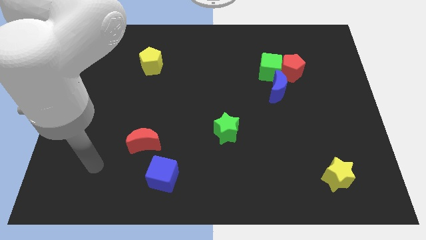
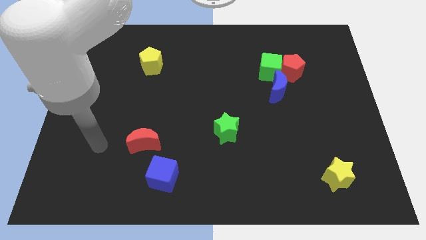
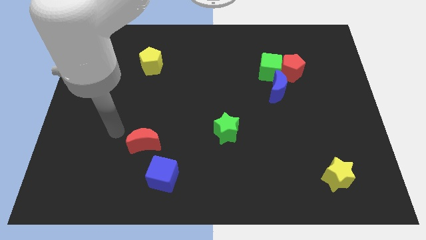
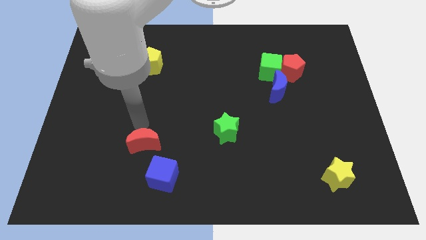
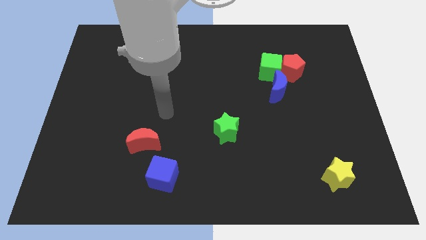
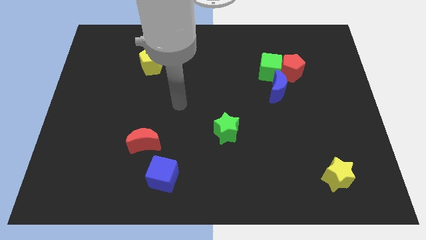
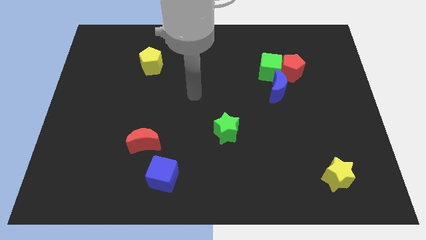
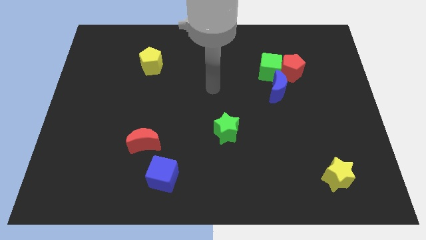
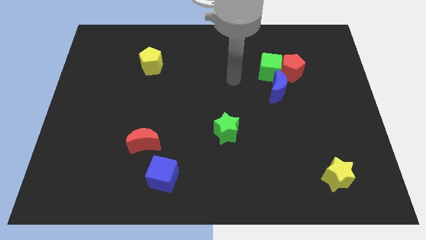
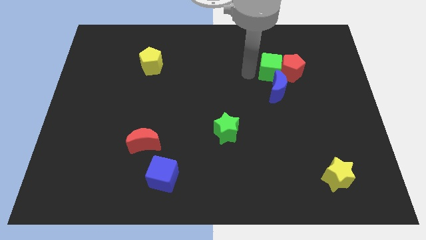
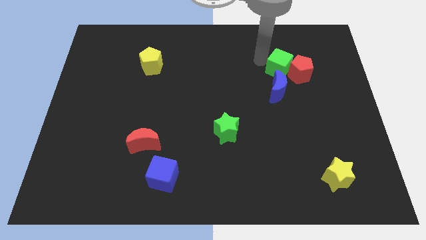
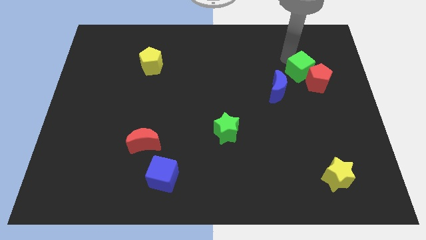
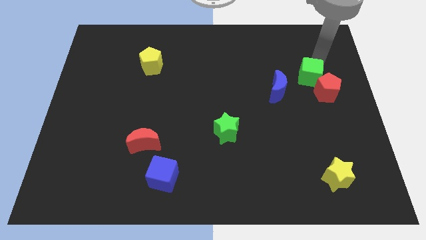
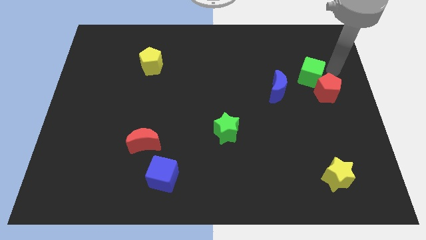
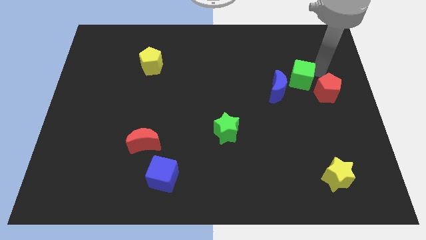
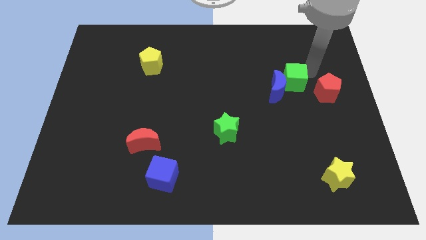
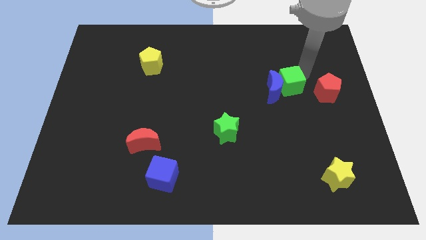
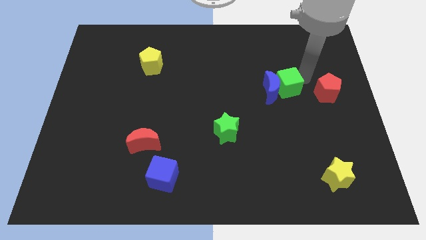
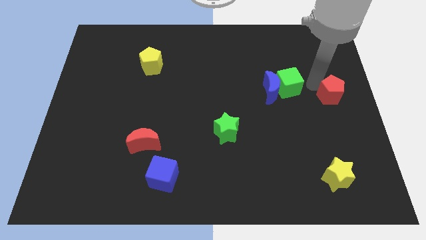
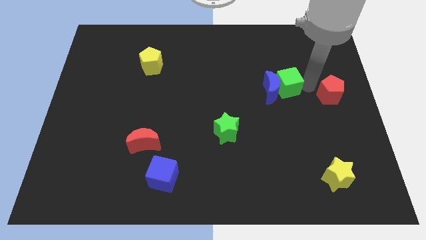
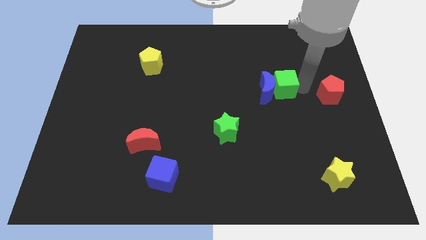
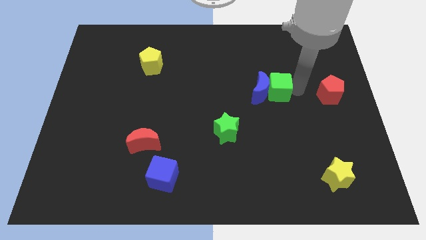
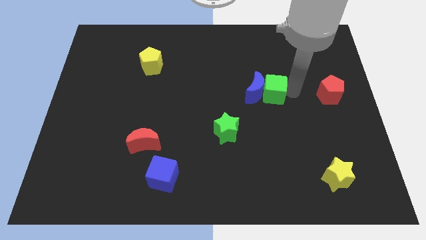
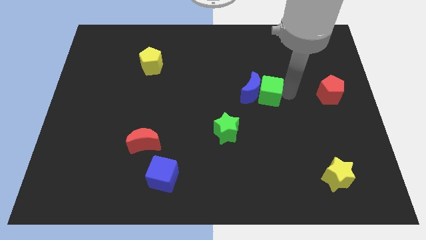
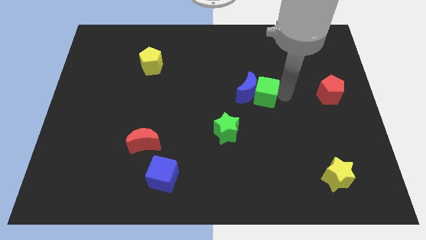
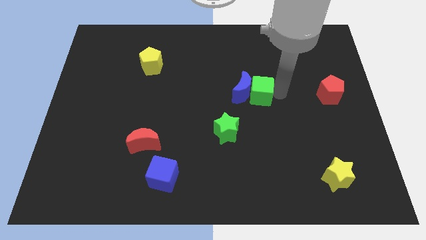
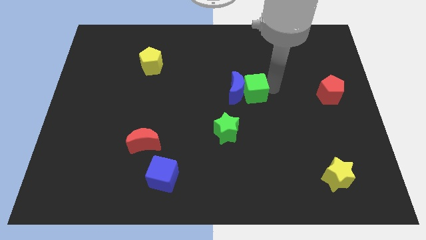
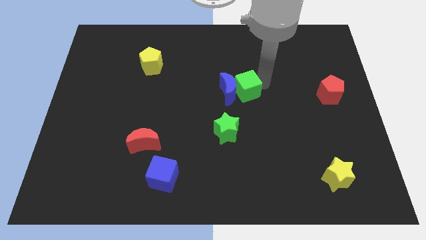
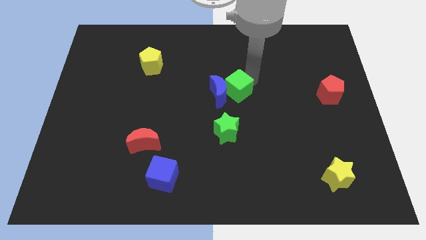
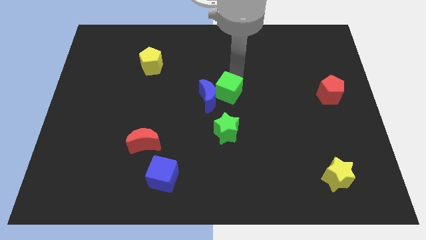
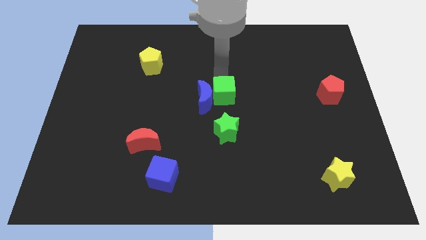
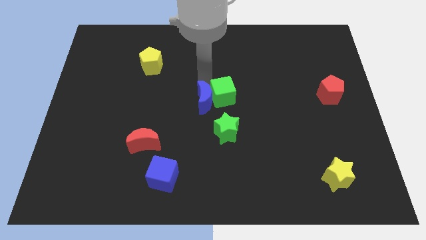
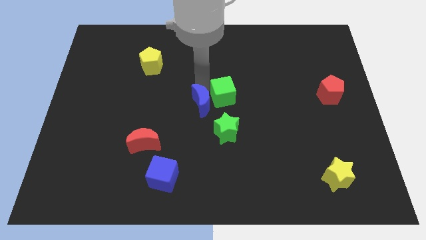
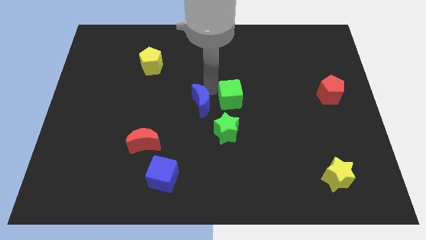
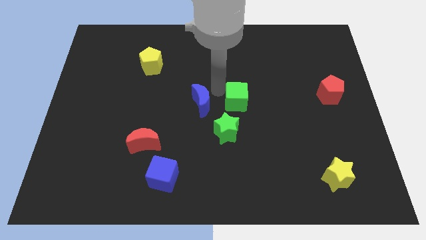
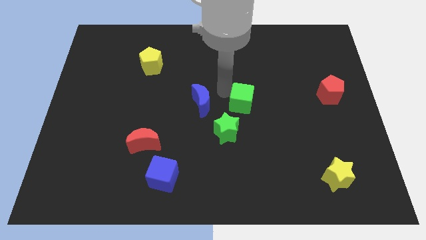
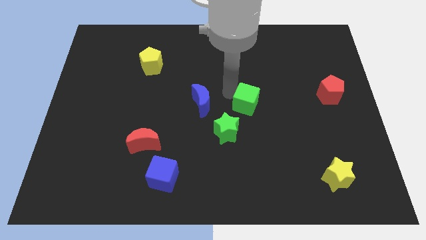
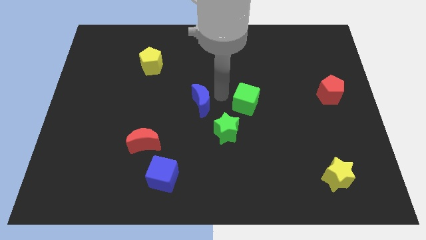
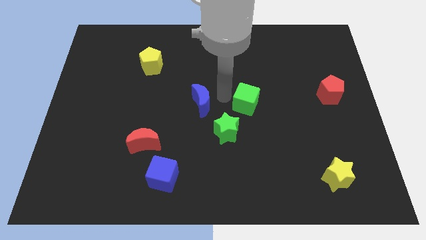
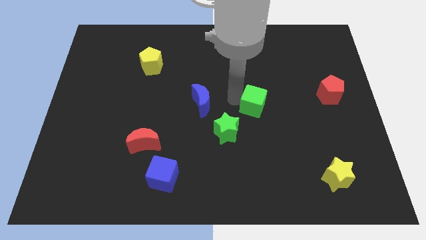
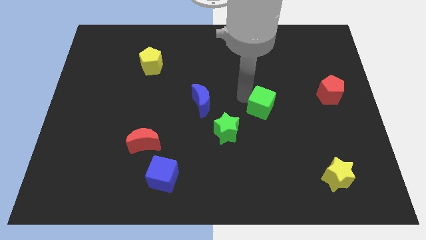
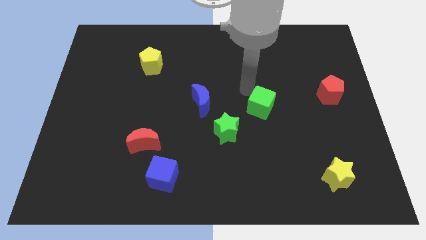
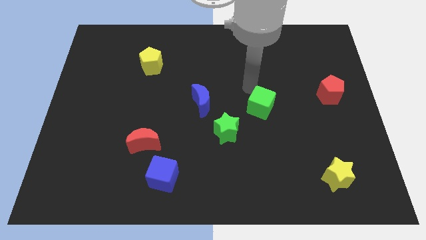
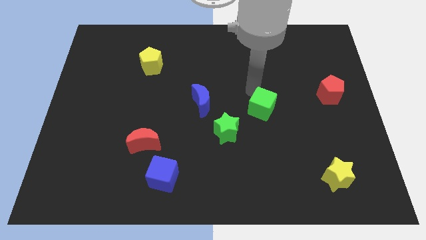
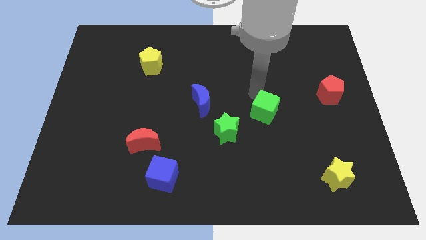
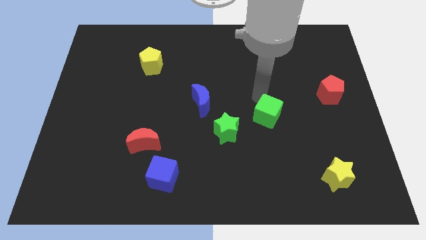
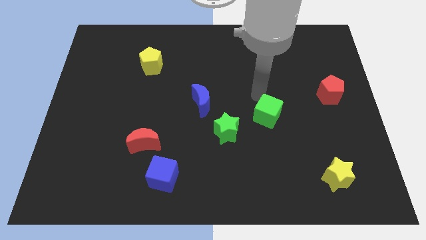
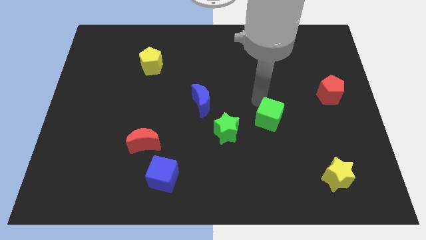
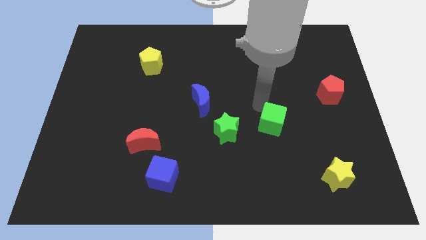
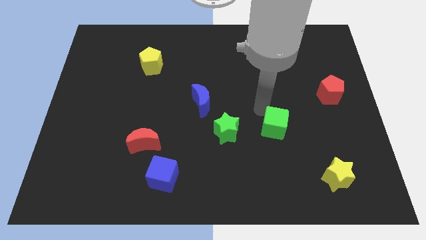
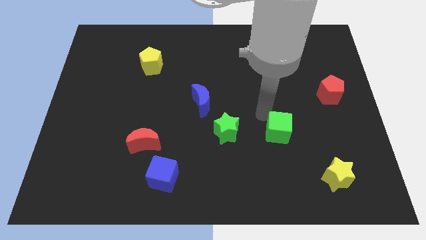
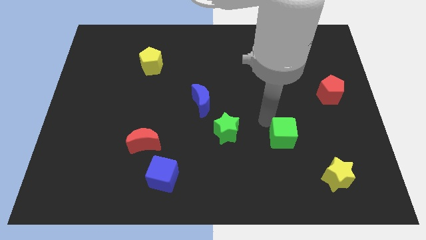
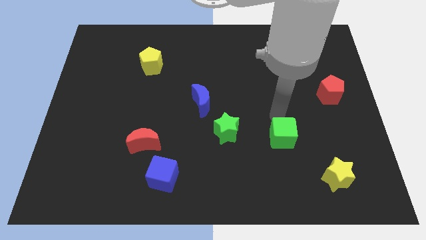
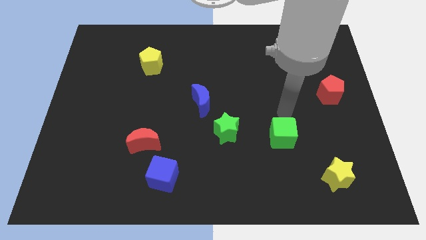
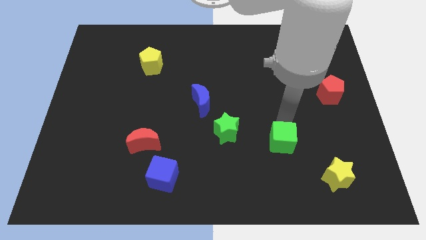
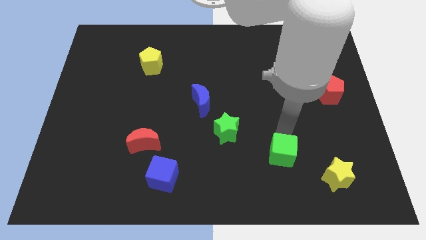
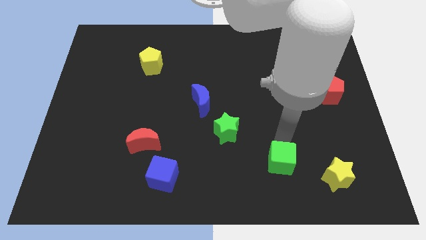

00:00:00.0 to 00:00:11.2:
move the green cube left of the yellow star

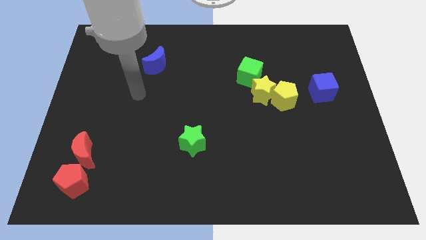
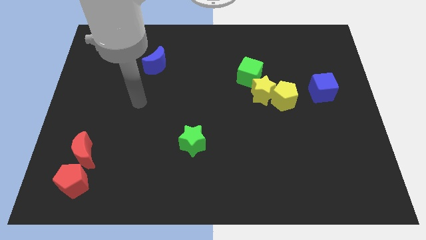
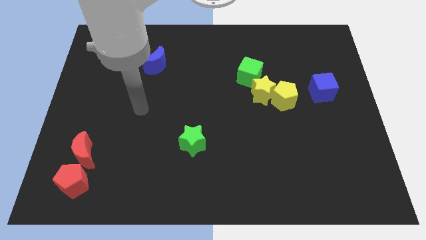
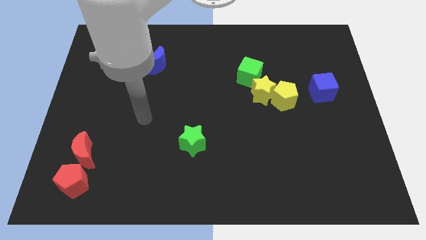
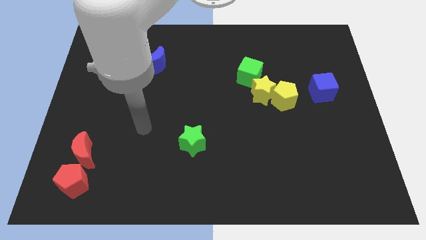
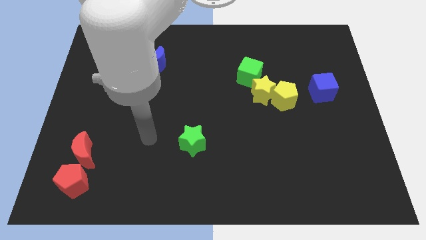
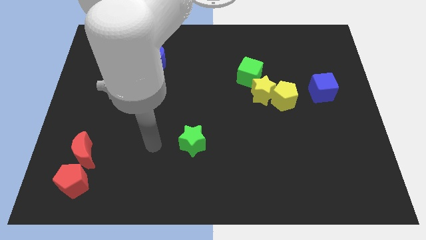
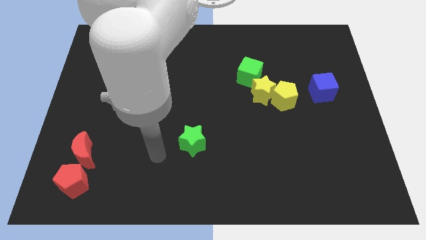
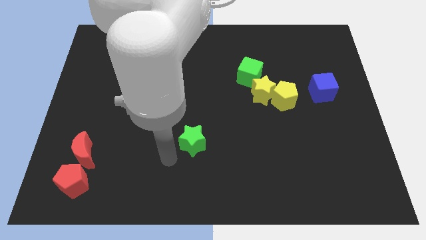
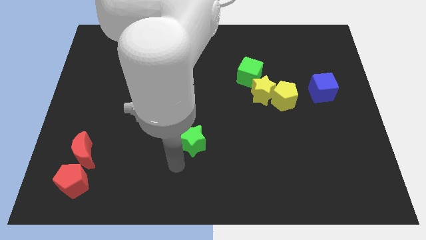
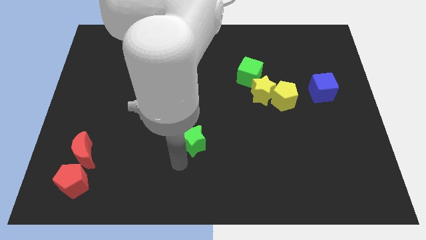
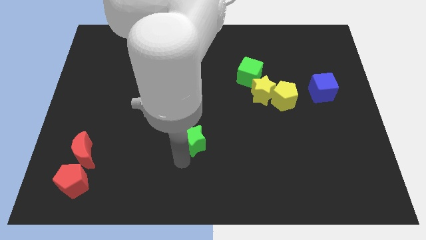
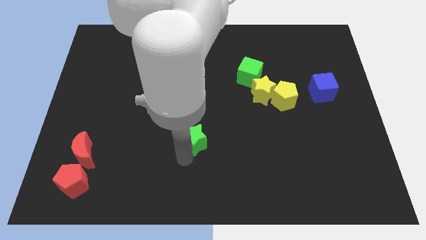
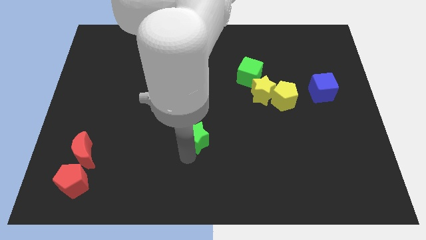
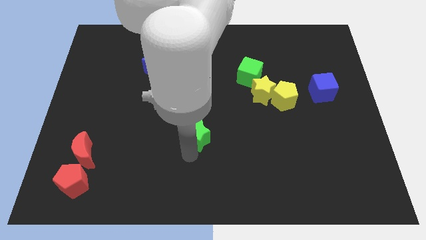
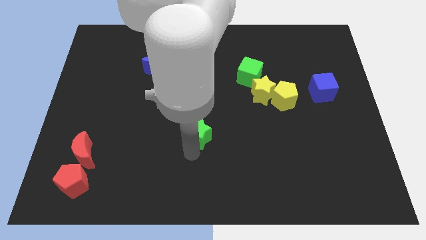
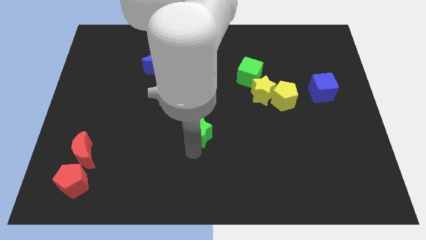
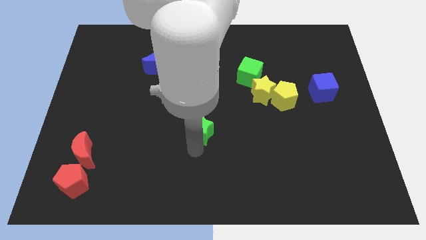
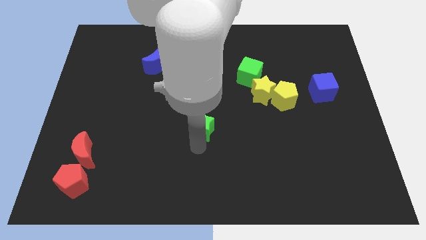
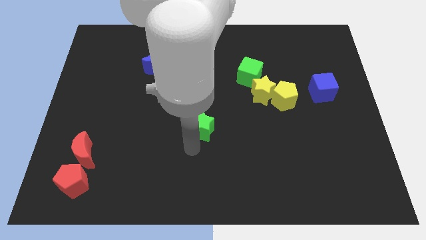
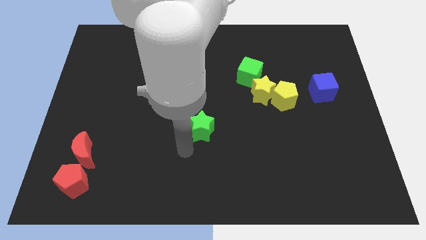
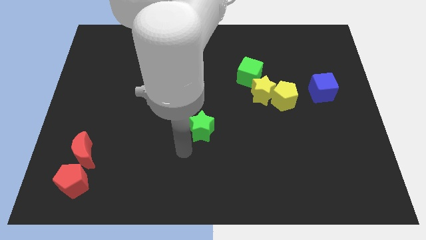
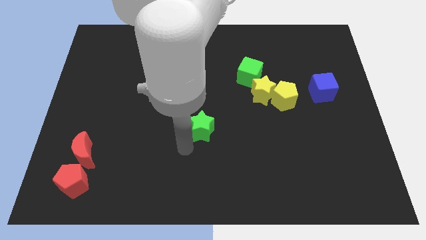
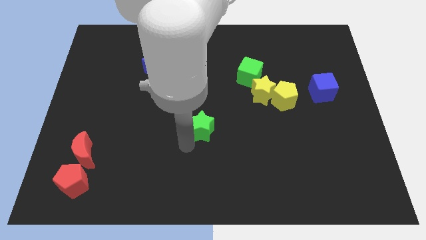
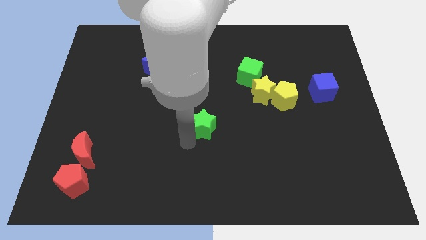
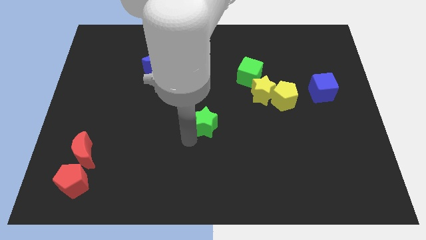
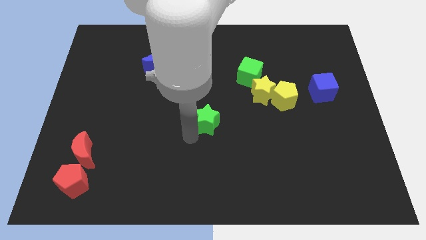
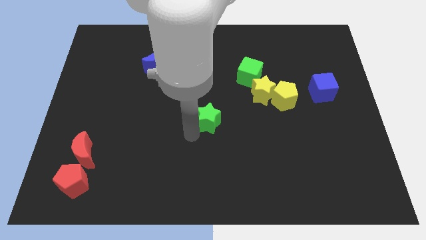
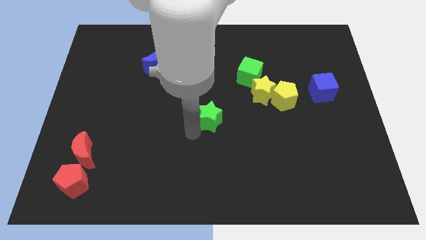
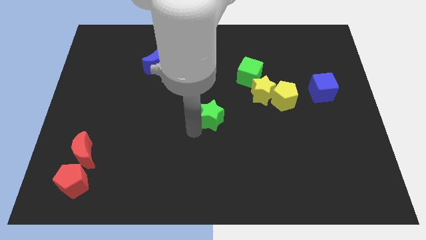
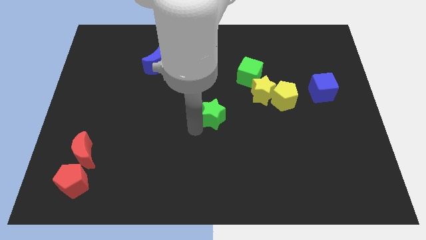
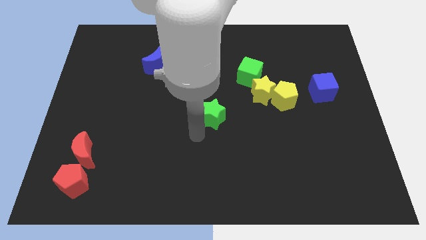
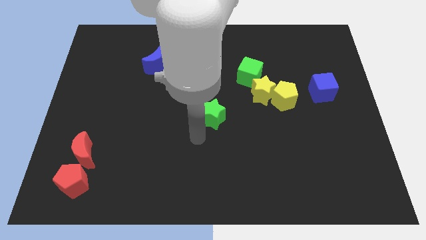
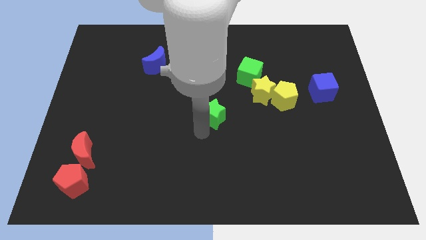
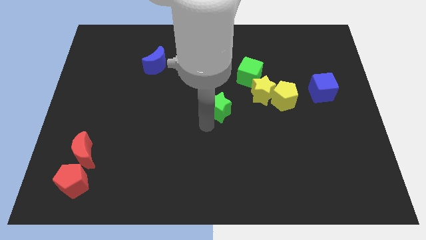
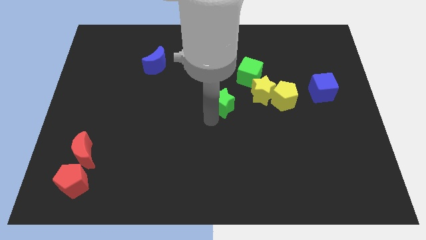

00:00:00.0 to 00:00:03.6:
push the green star to the bottom left side of the green cube
